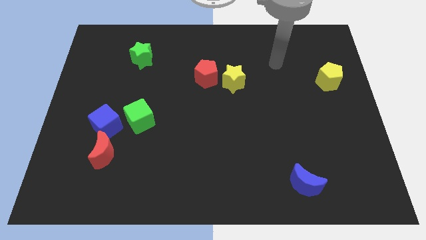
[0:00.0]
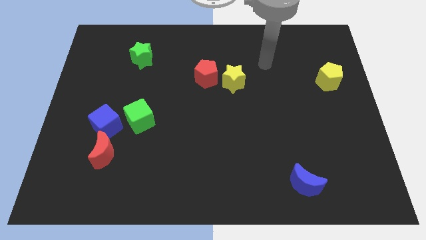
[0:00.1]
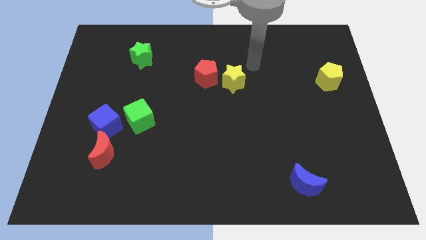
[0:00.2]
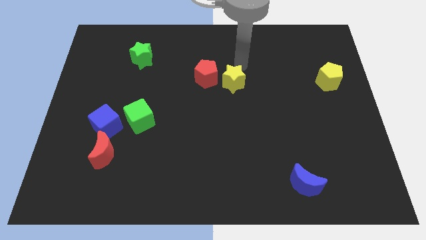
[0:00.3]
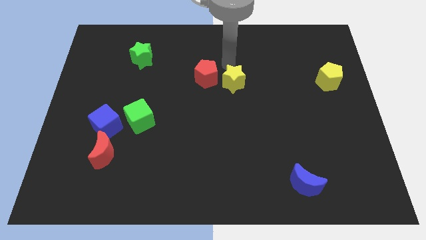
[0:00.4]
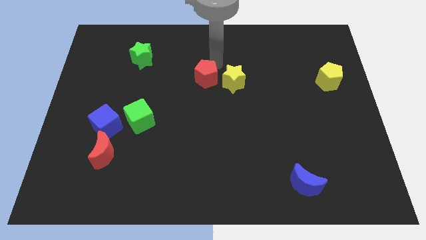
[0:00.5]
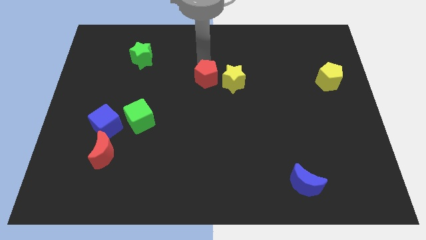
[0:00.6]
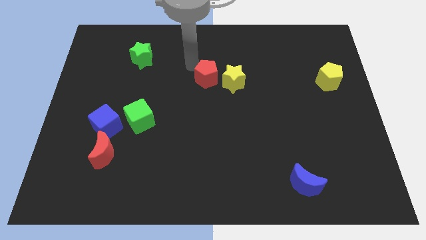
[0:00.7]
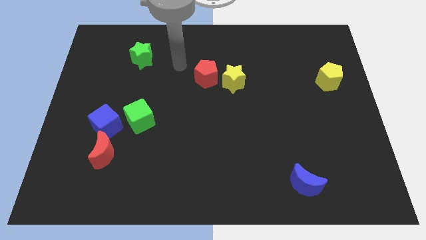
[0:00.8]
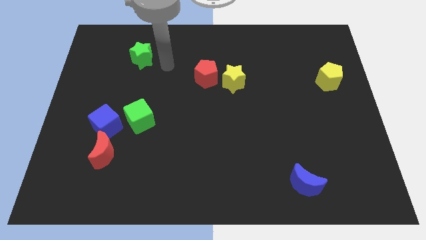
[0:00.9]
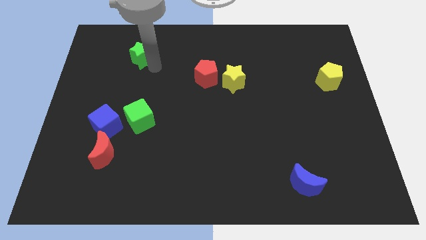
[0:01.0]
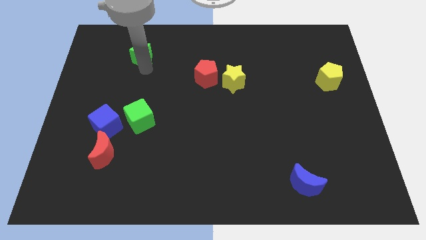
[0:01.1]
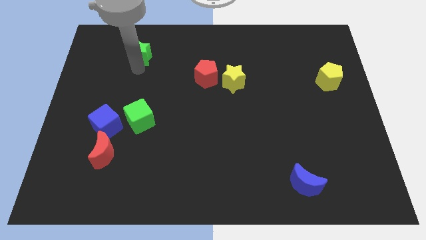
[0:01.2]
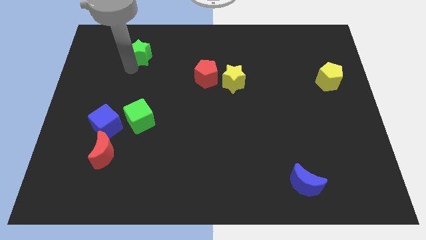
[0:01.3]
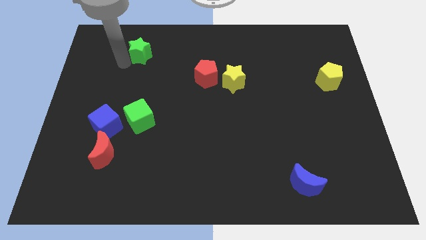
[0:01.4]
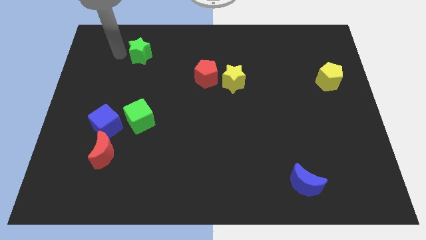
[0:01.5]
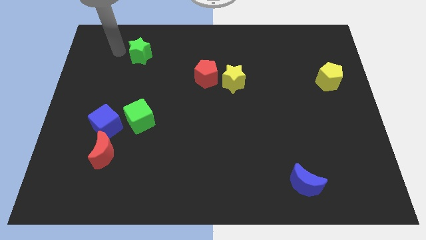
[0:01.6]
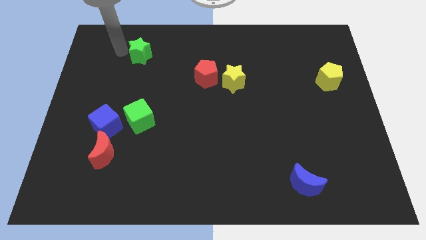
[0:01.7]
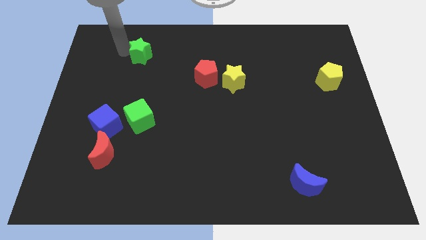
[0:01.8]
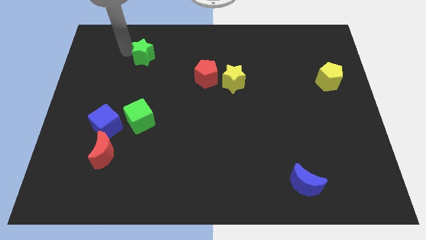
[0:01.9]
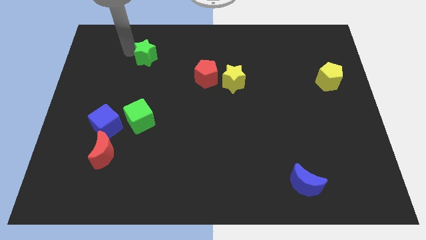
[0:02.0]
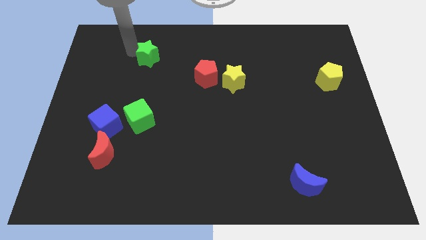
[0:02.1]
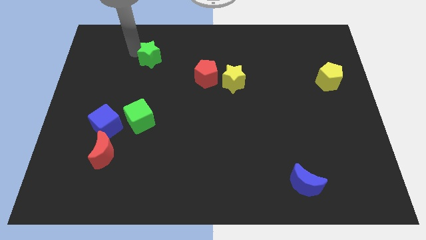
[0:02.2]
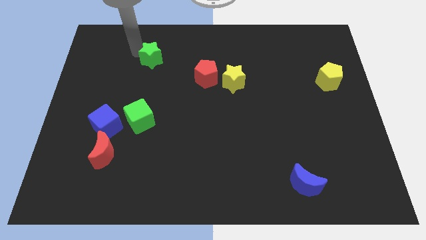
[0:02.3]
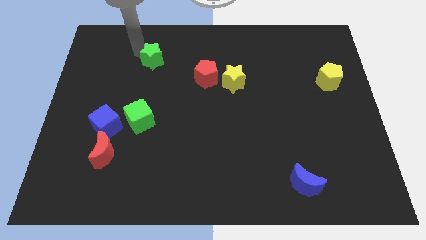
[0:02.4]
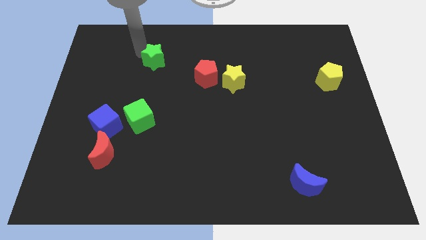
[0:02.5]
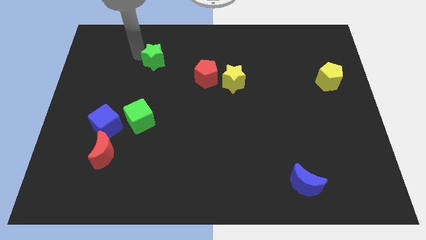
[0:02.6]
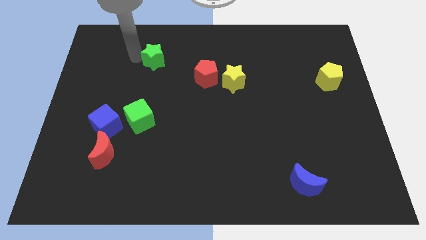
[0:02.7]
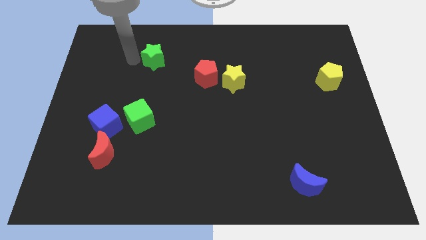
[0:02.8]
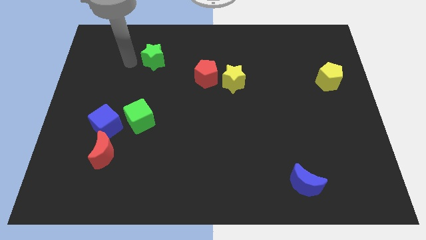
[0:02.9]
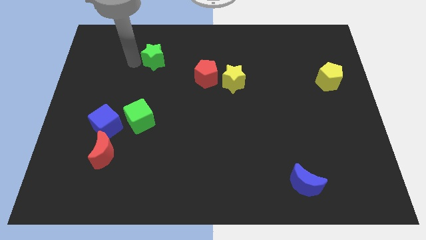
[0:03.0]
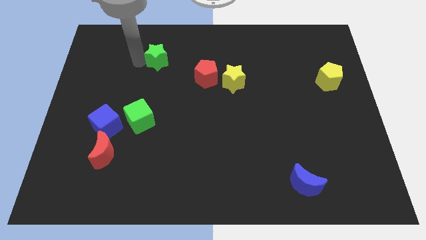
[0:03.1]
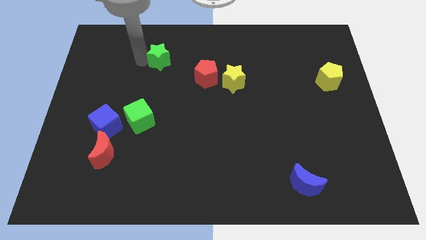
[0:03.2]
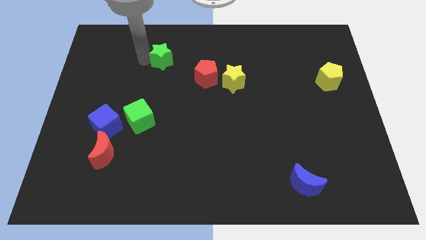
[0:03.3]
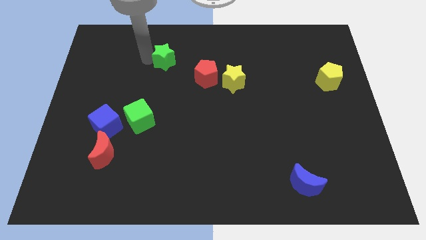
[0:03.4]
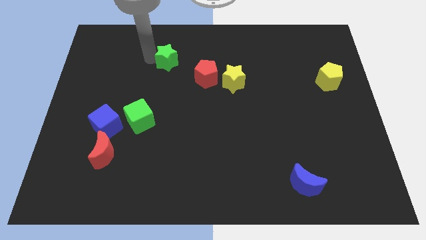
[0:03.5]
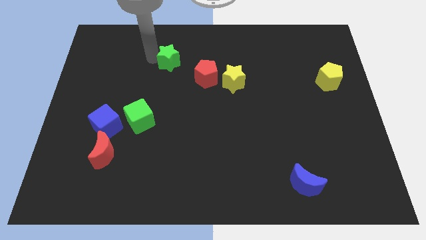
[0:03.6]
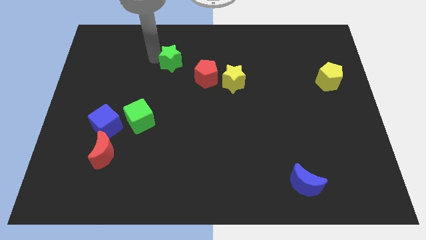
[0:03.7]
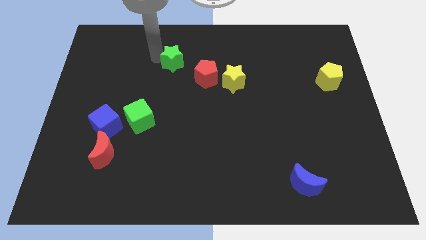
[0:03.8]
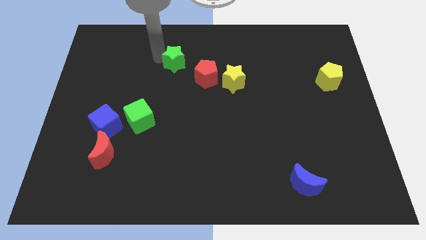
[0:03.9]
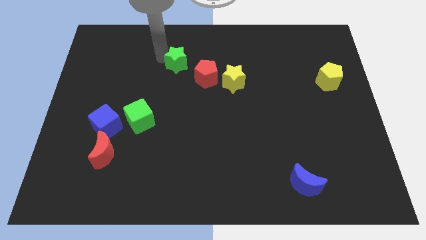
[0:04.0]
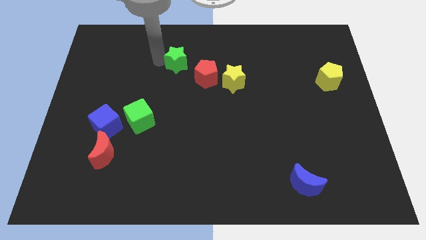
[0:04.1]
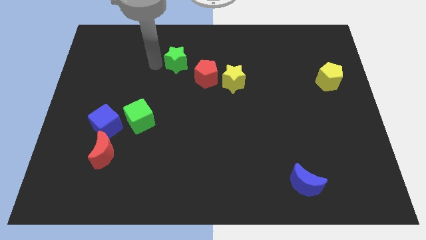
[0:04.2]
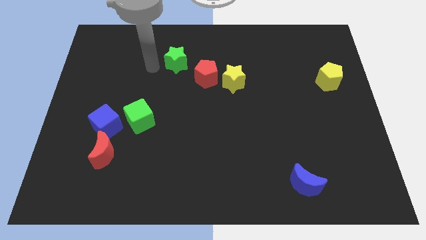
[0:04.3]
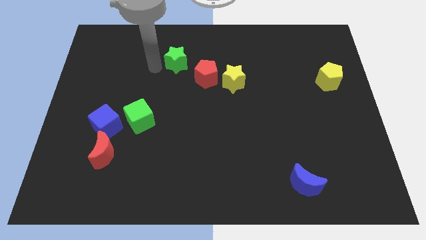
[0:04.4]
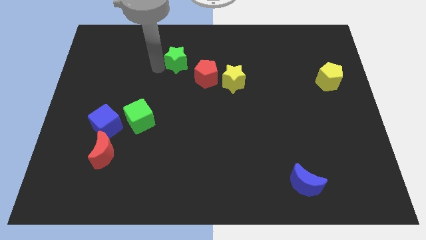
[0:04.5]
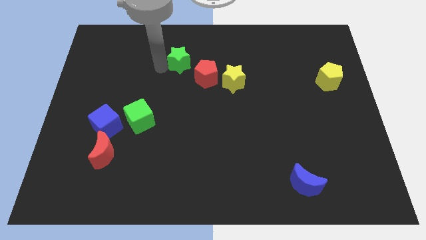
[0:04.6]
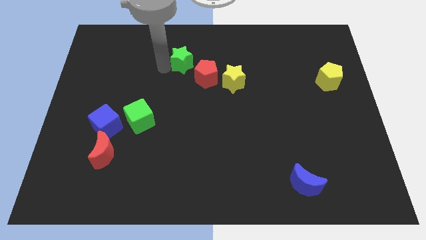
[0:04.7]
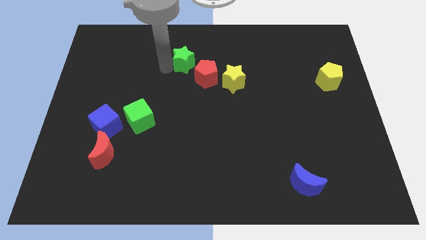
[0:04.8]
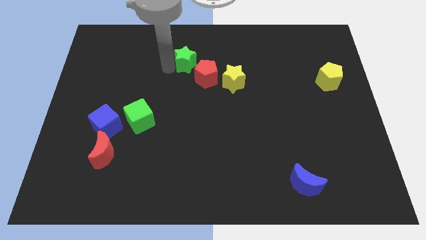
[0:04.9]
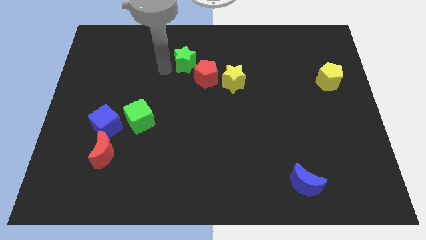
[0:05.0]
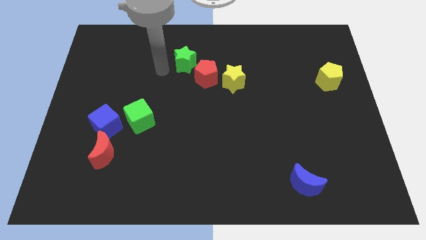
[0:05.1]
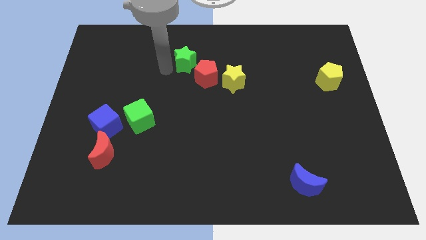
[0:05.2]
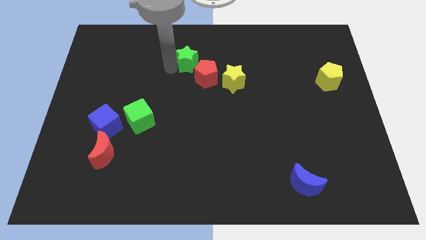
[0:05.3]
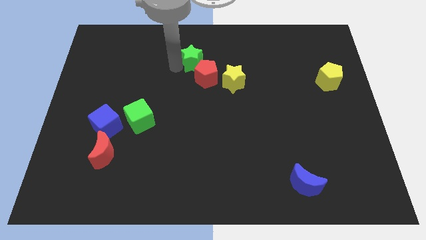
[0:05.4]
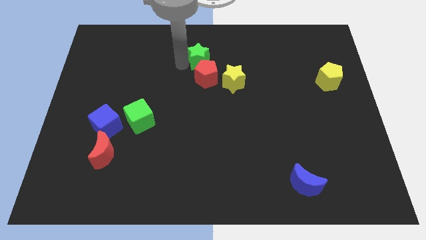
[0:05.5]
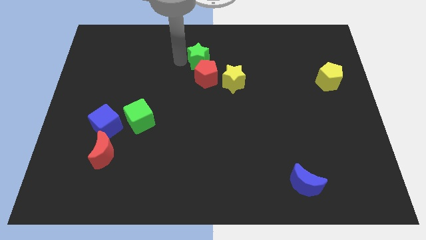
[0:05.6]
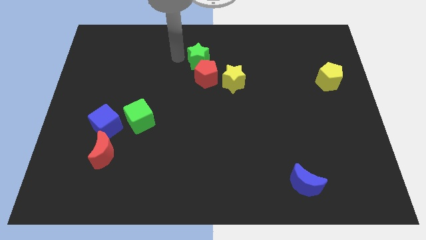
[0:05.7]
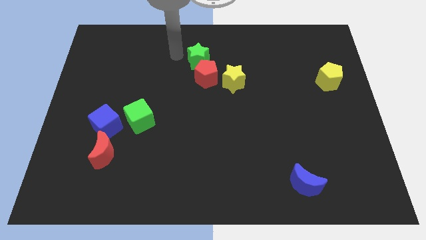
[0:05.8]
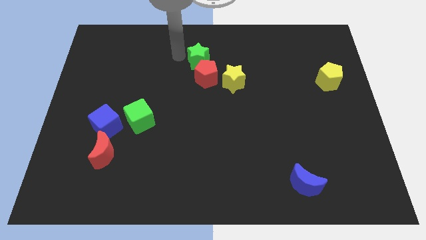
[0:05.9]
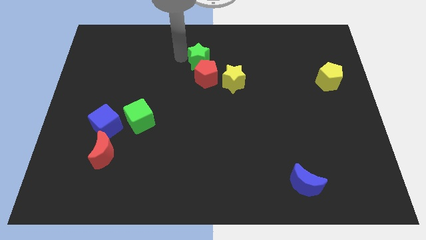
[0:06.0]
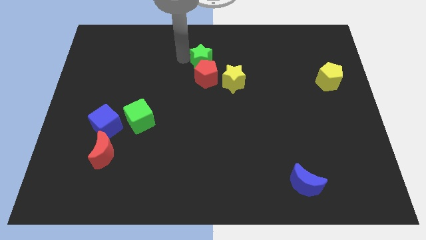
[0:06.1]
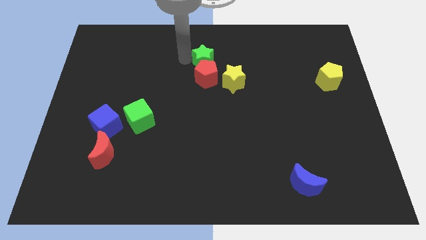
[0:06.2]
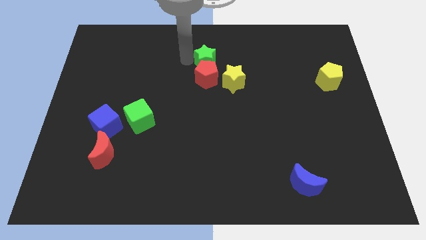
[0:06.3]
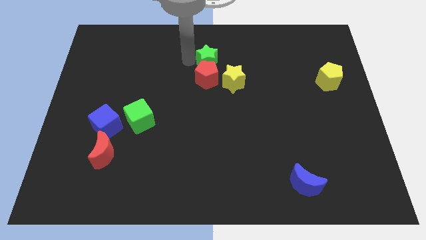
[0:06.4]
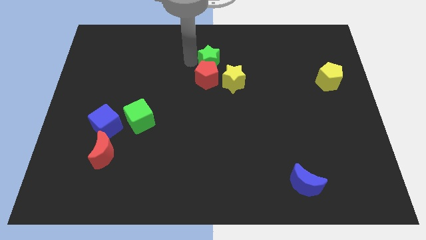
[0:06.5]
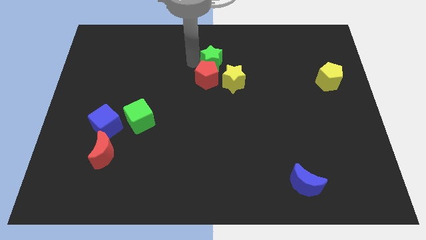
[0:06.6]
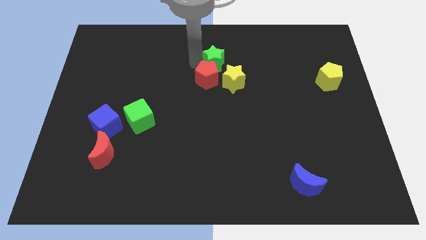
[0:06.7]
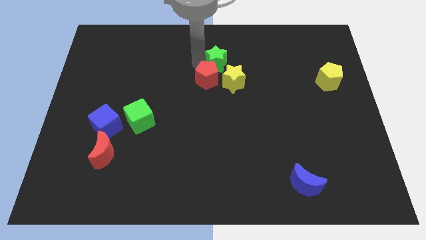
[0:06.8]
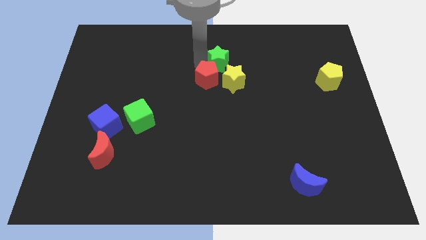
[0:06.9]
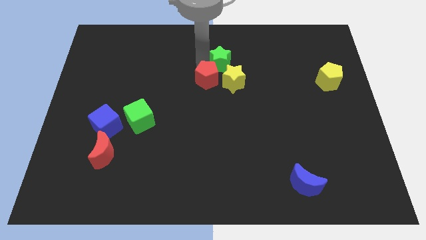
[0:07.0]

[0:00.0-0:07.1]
push the green star right of the red pentagon
